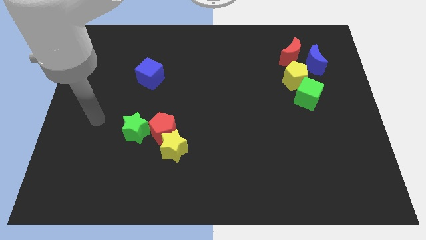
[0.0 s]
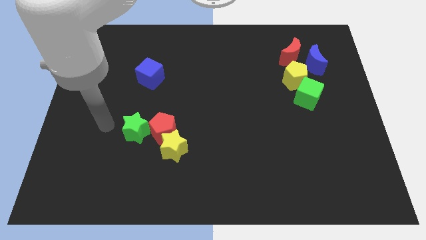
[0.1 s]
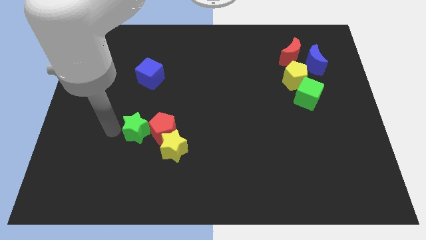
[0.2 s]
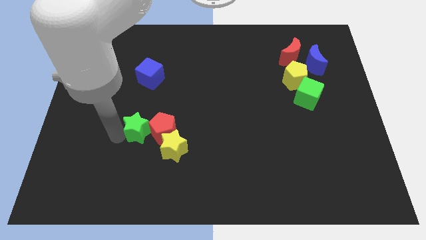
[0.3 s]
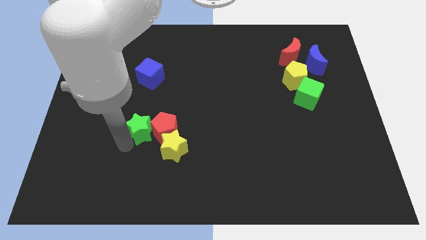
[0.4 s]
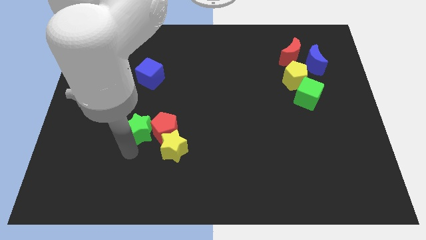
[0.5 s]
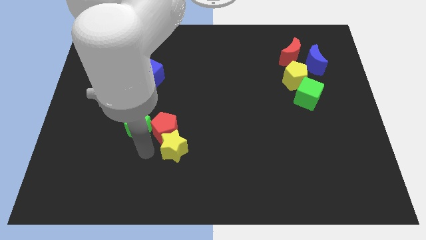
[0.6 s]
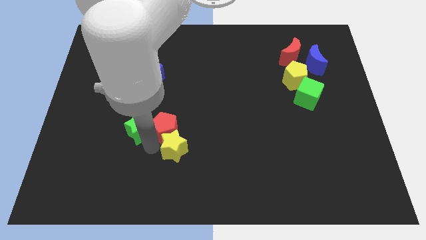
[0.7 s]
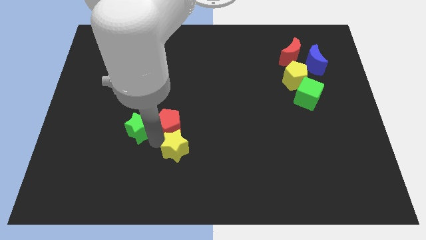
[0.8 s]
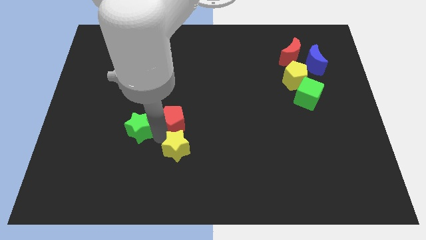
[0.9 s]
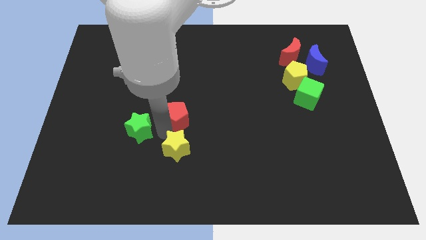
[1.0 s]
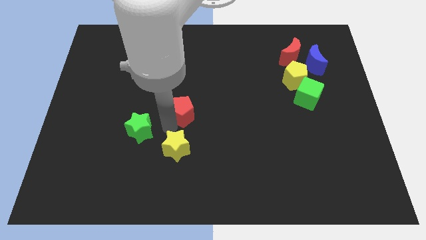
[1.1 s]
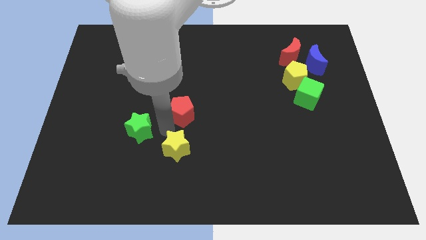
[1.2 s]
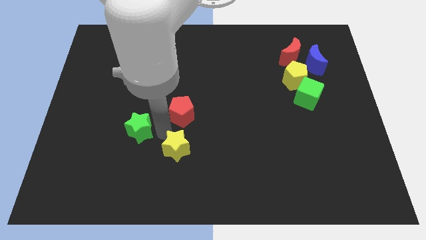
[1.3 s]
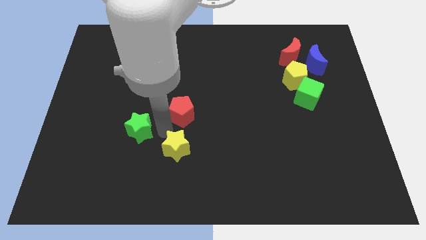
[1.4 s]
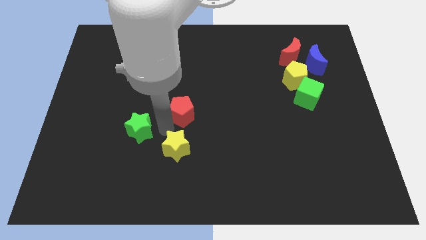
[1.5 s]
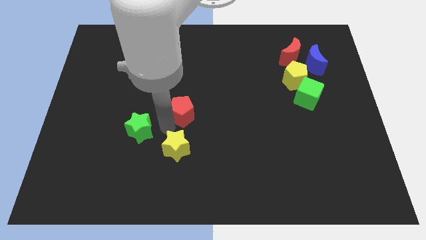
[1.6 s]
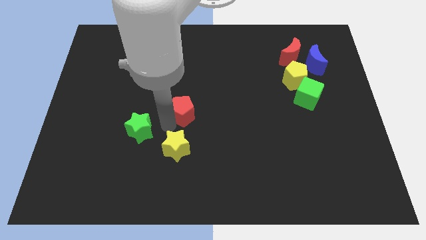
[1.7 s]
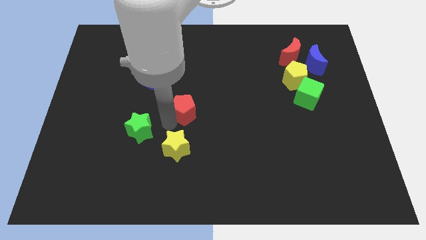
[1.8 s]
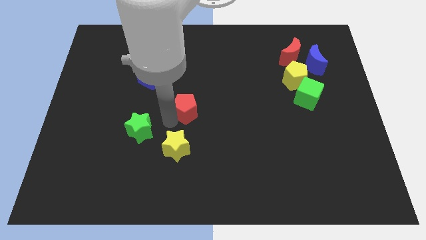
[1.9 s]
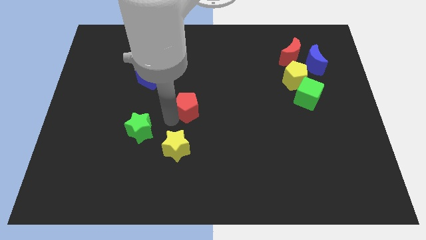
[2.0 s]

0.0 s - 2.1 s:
move the red pentagon away from the yellow star and green star

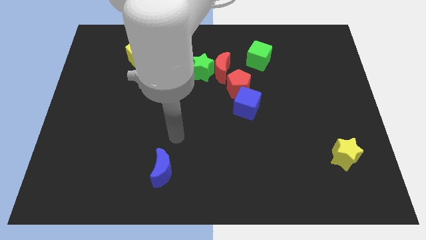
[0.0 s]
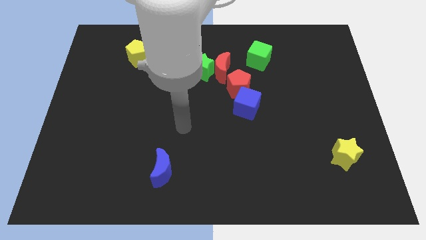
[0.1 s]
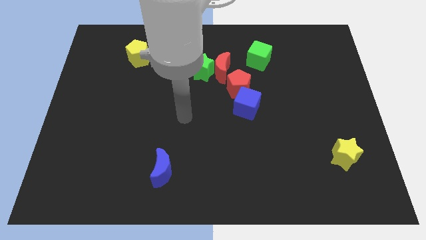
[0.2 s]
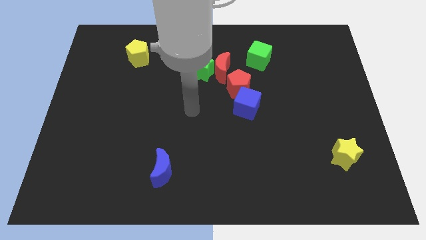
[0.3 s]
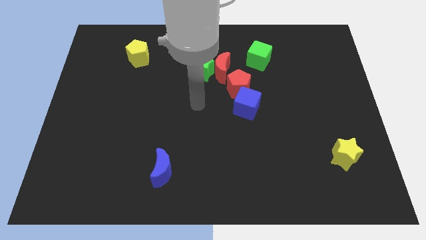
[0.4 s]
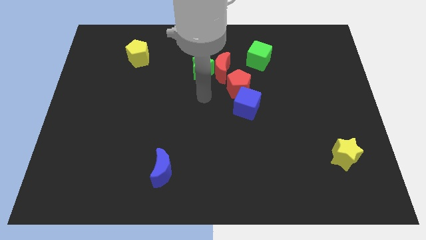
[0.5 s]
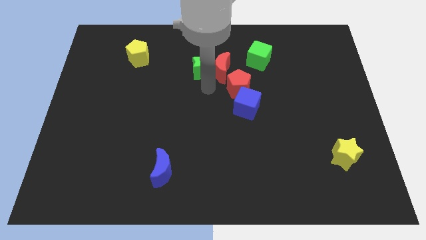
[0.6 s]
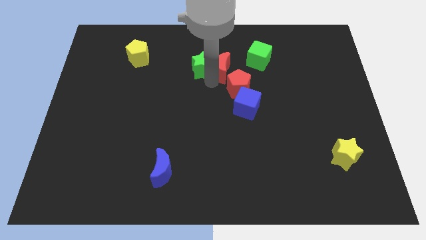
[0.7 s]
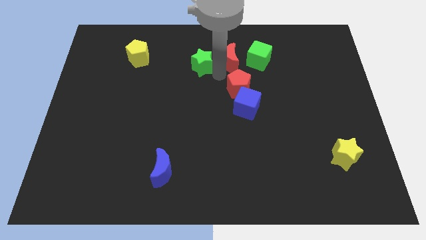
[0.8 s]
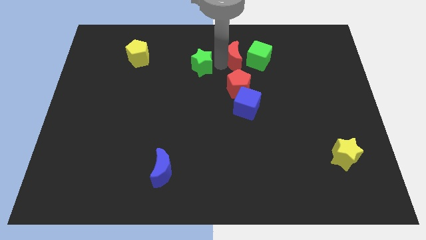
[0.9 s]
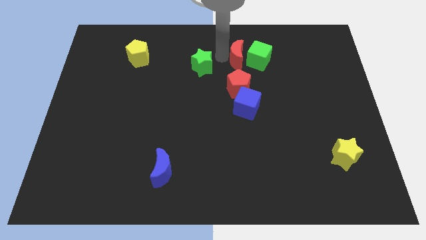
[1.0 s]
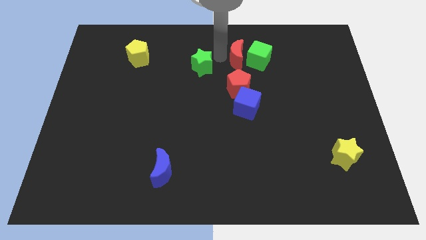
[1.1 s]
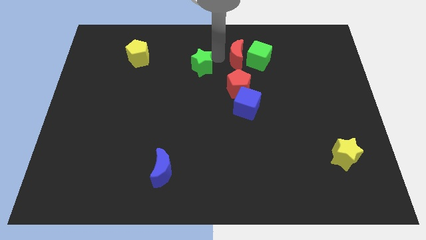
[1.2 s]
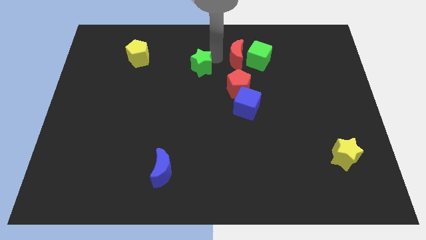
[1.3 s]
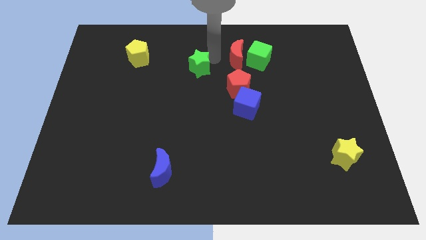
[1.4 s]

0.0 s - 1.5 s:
pull the green star apart from the red moon

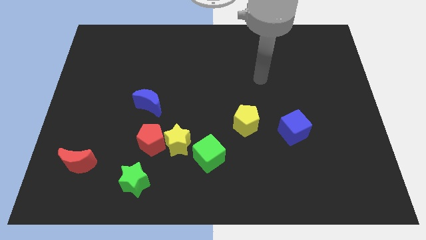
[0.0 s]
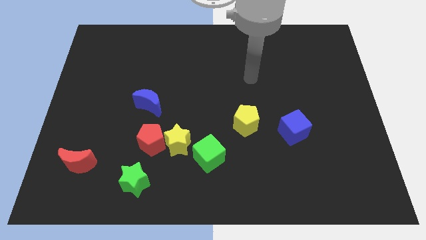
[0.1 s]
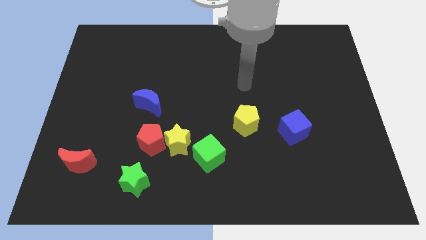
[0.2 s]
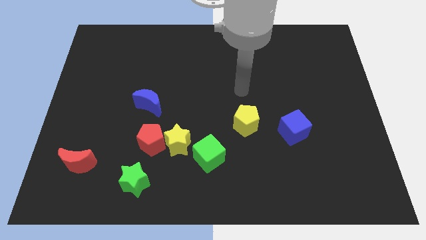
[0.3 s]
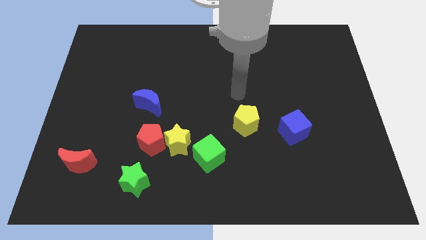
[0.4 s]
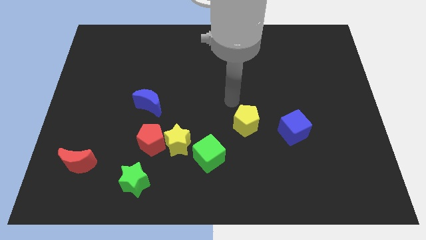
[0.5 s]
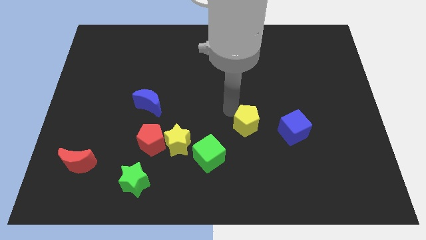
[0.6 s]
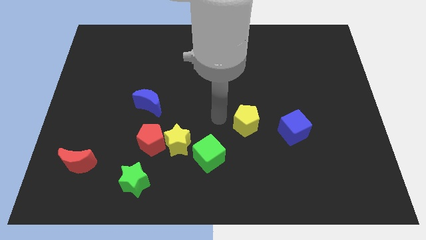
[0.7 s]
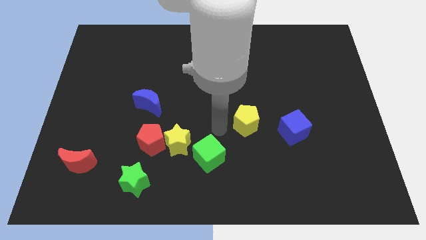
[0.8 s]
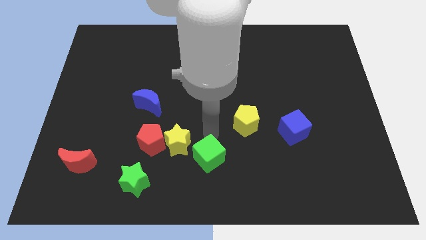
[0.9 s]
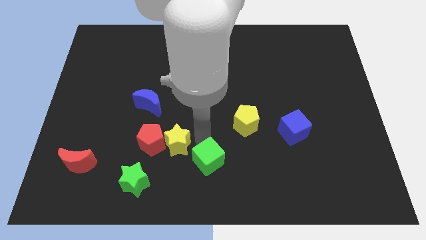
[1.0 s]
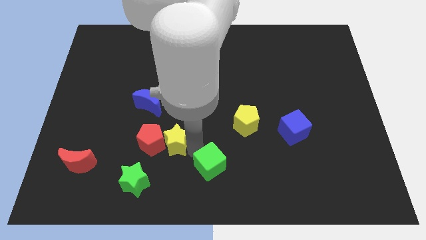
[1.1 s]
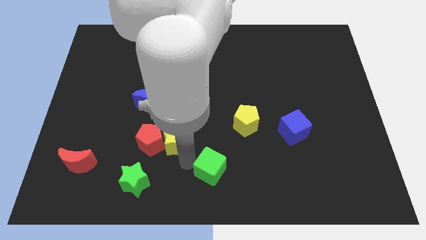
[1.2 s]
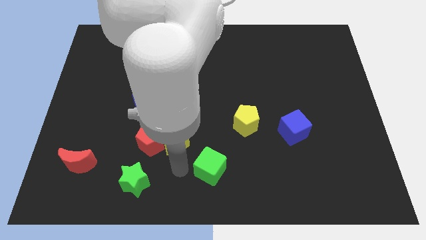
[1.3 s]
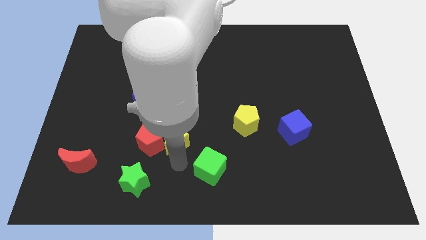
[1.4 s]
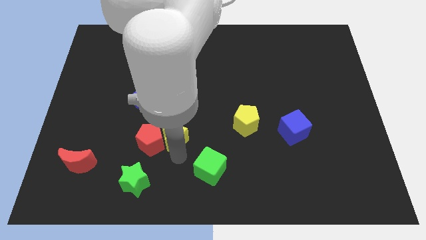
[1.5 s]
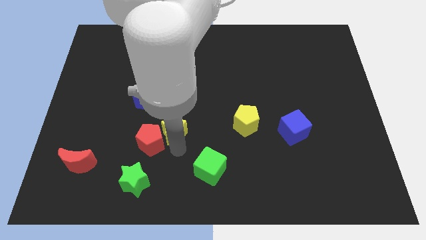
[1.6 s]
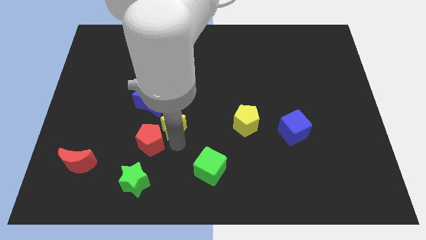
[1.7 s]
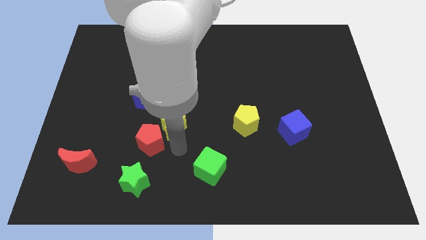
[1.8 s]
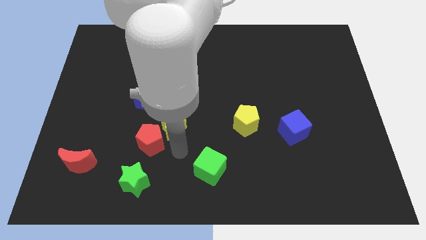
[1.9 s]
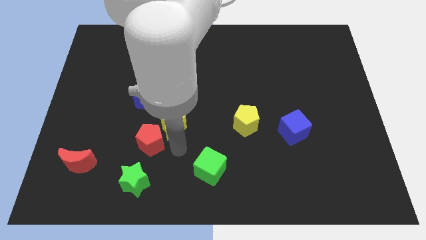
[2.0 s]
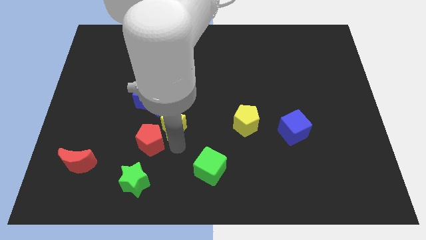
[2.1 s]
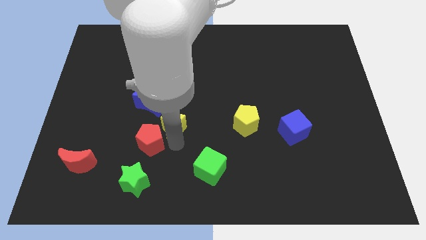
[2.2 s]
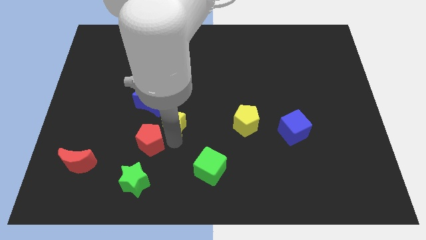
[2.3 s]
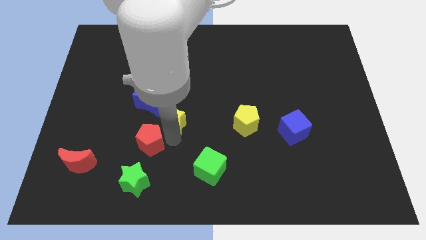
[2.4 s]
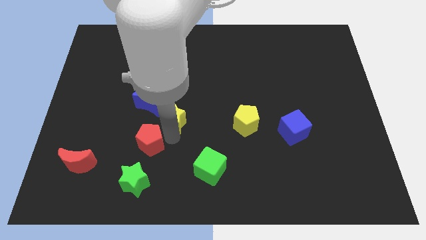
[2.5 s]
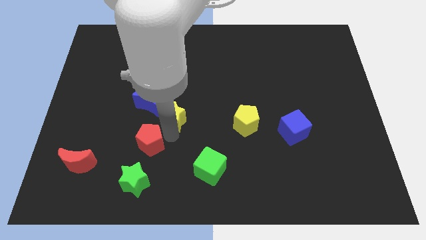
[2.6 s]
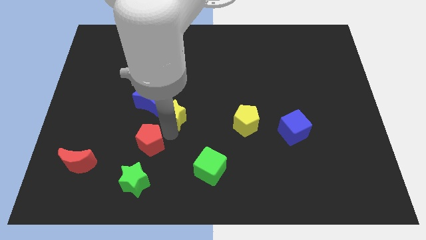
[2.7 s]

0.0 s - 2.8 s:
move the yellow star away from the red pentagon and green cube

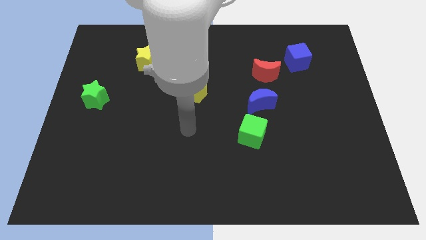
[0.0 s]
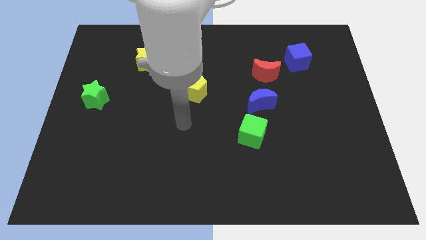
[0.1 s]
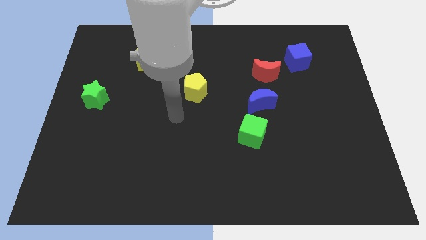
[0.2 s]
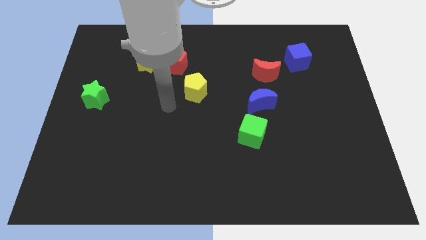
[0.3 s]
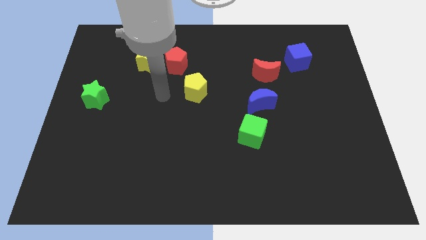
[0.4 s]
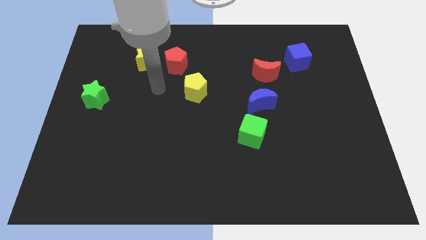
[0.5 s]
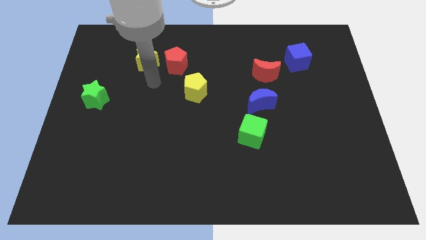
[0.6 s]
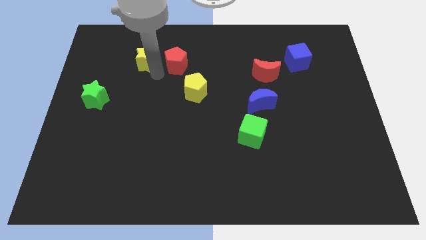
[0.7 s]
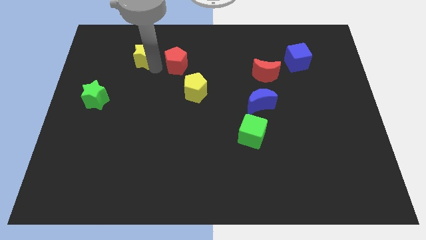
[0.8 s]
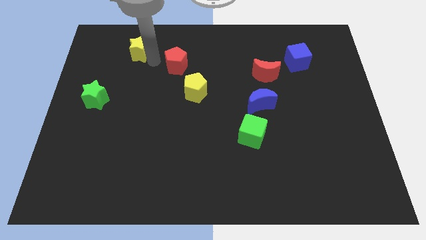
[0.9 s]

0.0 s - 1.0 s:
move the red pentagon away from the yellow star

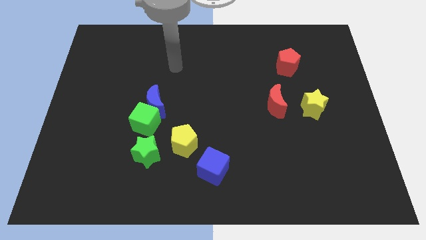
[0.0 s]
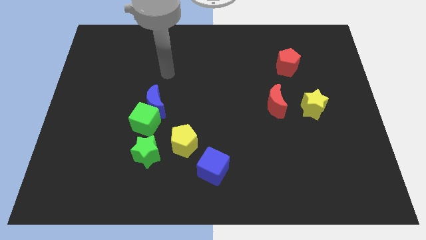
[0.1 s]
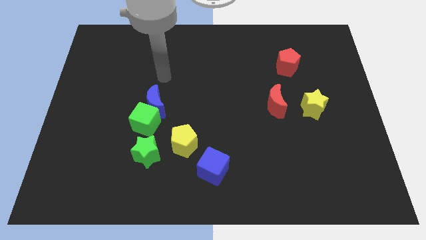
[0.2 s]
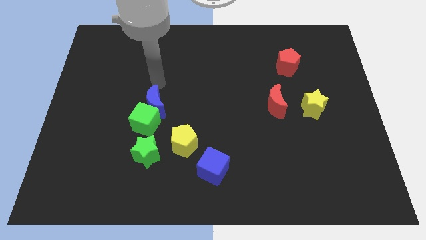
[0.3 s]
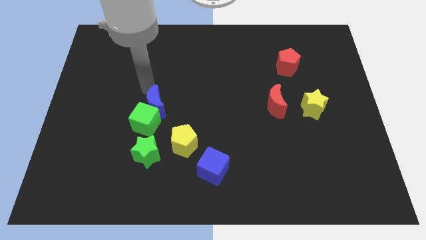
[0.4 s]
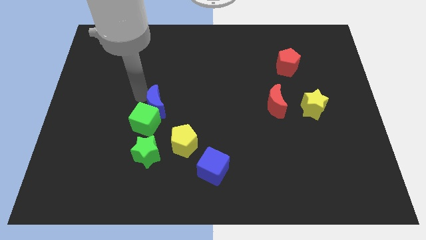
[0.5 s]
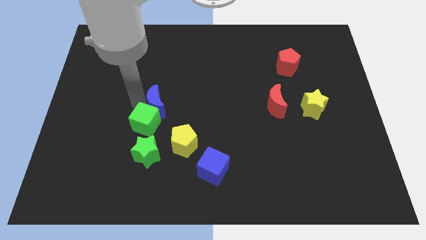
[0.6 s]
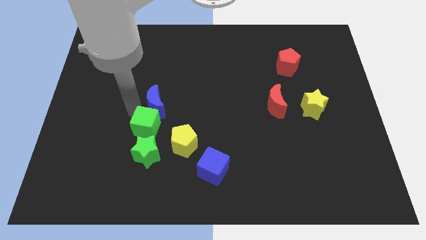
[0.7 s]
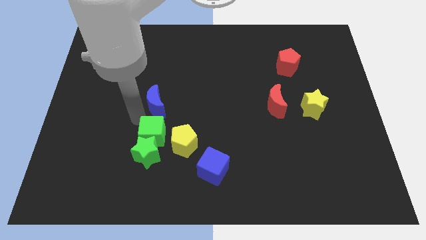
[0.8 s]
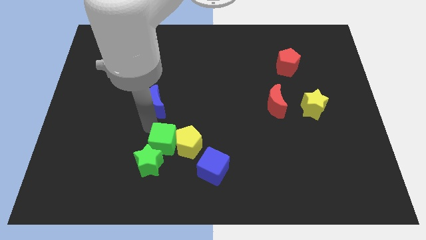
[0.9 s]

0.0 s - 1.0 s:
pull the blue moon apart from the green cube

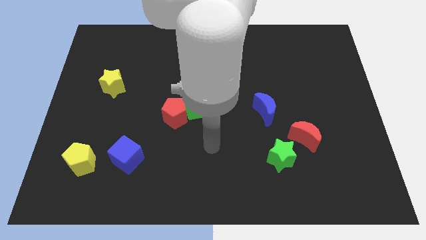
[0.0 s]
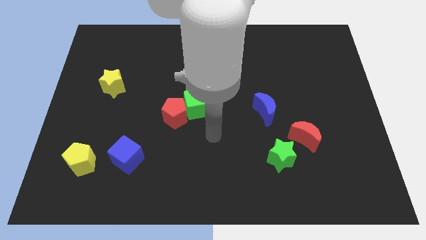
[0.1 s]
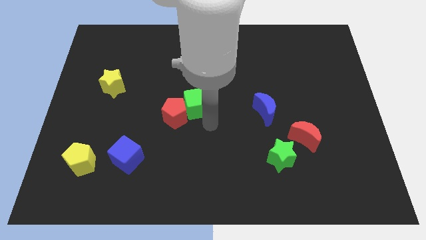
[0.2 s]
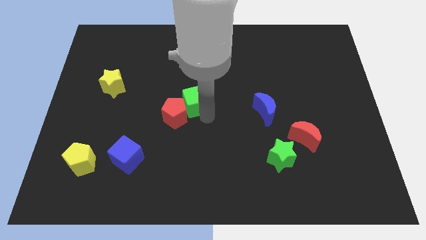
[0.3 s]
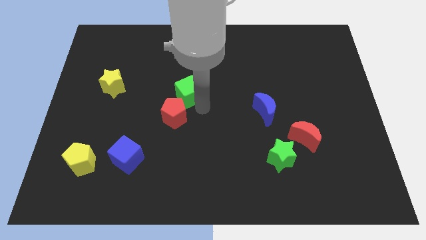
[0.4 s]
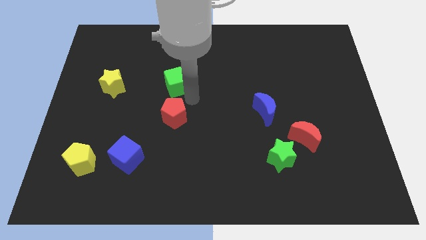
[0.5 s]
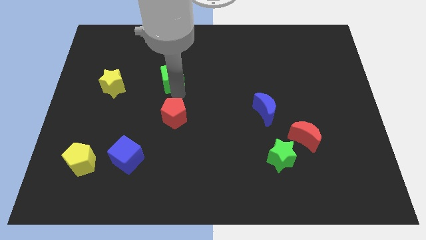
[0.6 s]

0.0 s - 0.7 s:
move the red pentagon away from the green cube
